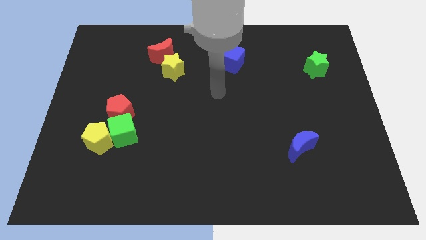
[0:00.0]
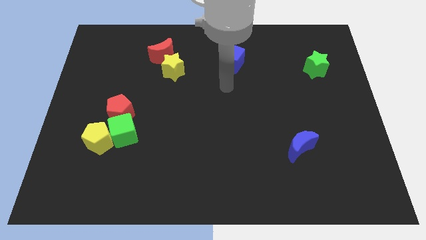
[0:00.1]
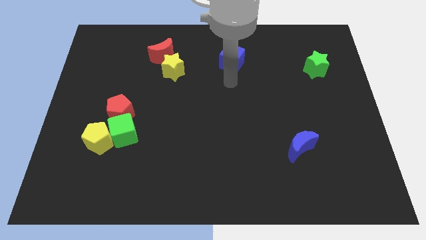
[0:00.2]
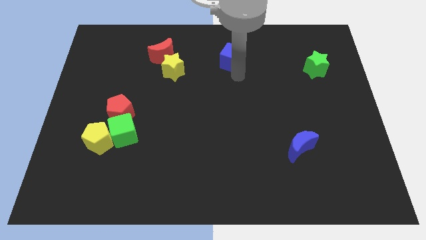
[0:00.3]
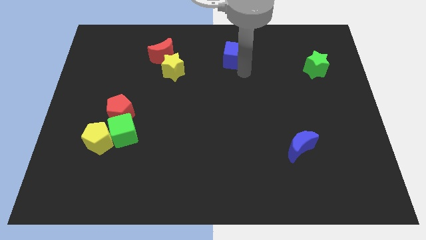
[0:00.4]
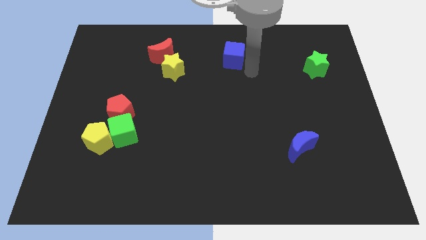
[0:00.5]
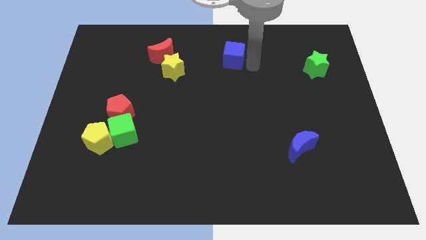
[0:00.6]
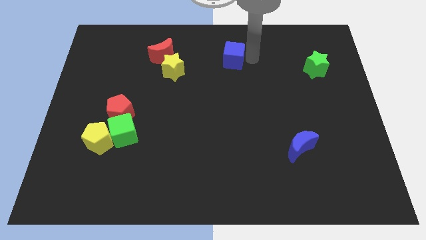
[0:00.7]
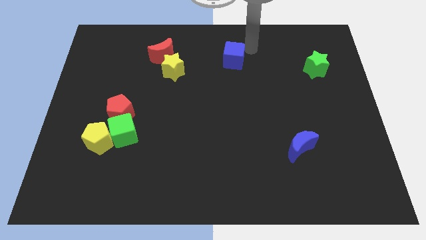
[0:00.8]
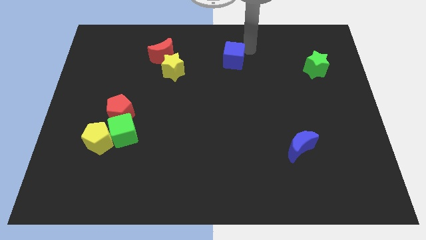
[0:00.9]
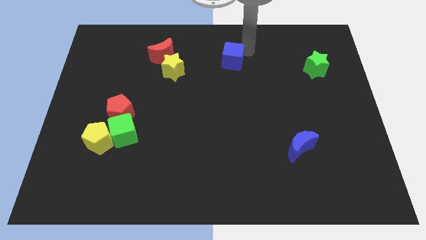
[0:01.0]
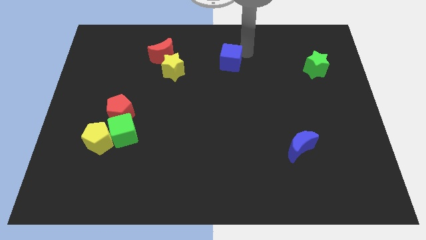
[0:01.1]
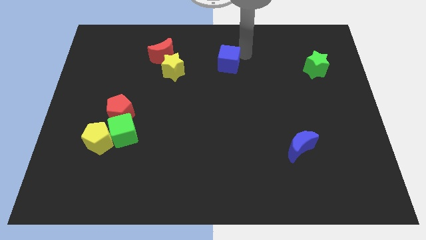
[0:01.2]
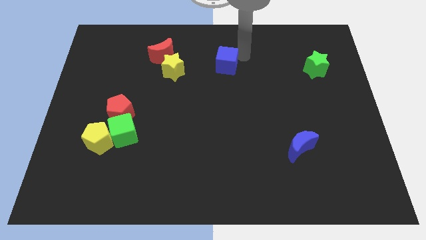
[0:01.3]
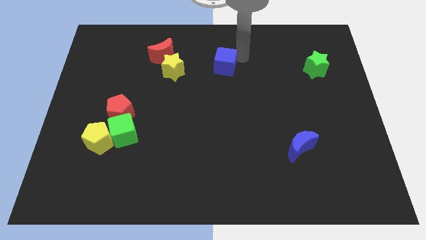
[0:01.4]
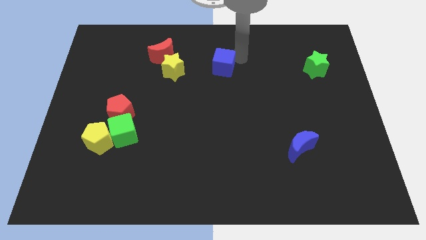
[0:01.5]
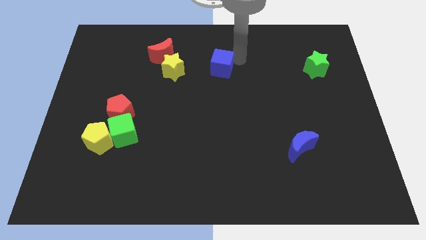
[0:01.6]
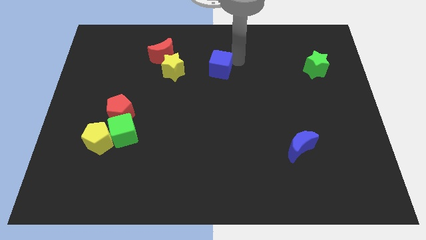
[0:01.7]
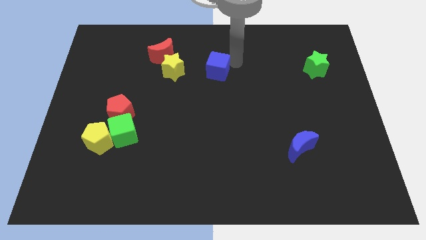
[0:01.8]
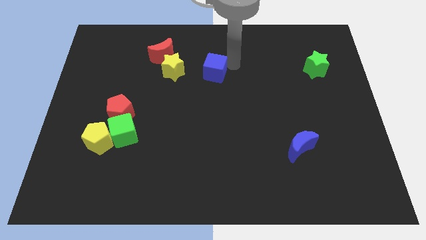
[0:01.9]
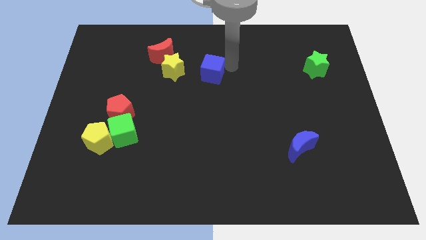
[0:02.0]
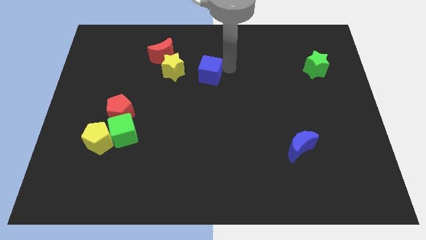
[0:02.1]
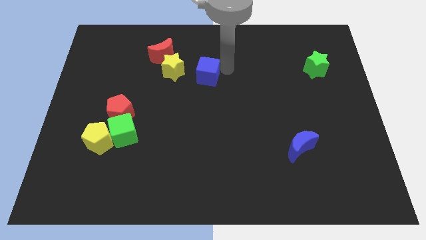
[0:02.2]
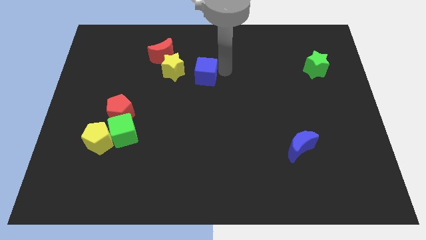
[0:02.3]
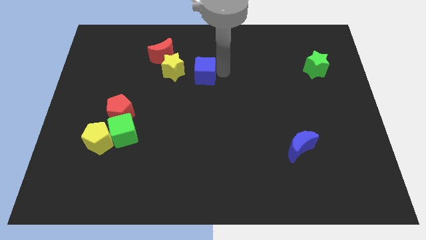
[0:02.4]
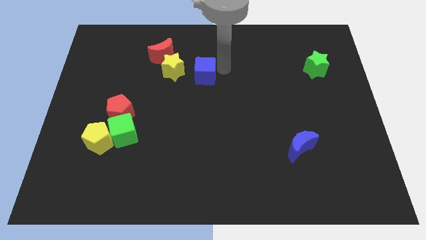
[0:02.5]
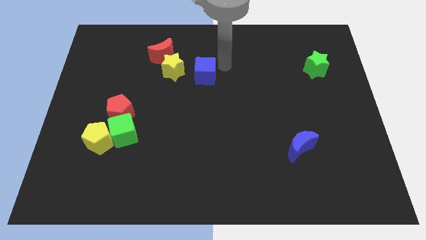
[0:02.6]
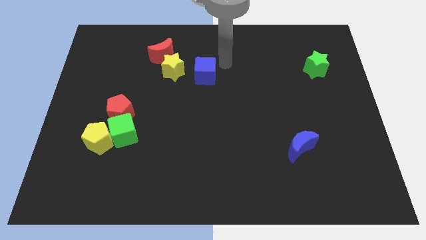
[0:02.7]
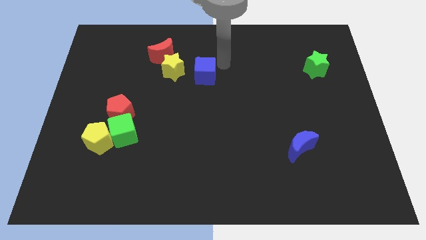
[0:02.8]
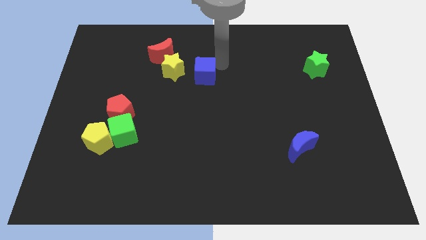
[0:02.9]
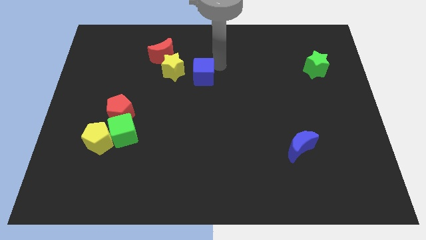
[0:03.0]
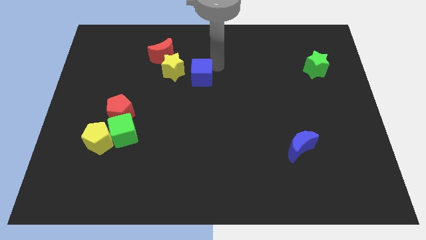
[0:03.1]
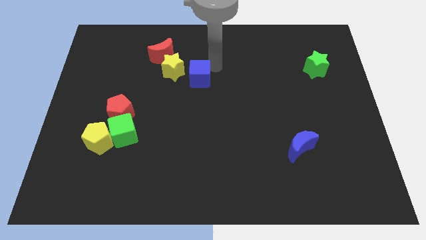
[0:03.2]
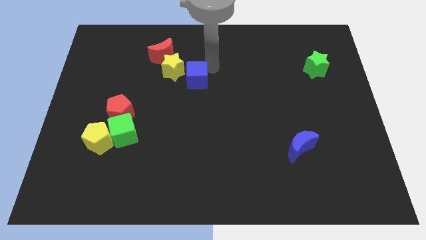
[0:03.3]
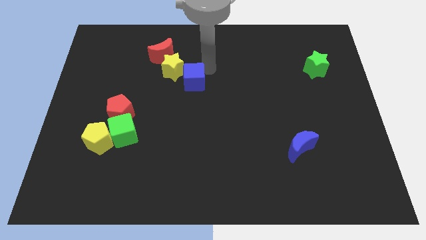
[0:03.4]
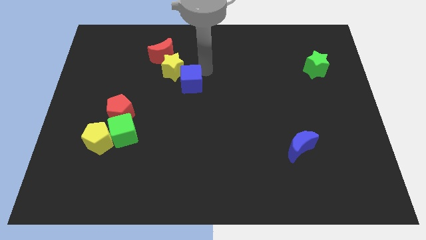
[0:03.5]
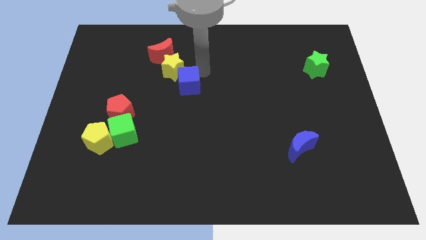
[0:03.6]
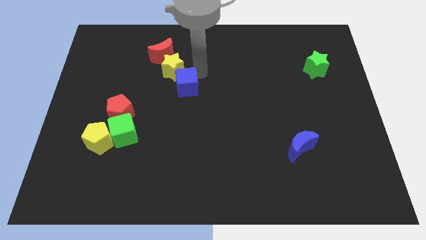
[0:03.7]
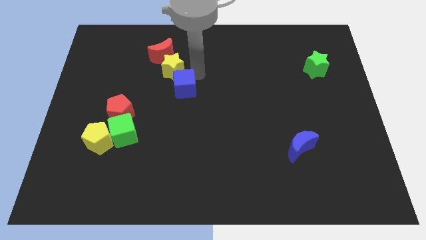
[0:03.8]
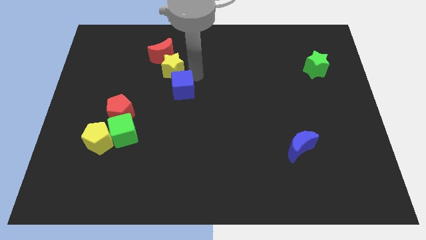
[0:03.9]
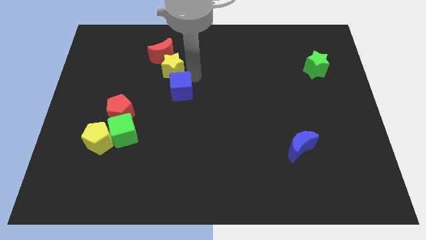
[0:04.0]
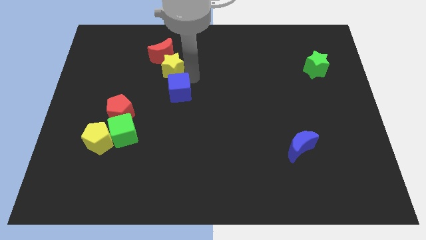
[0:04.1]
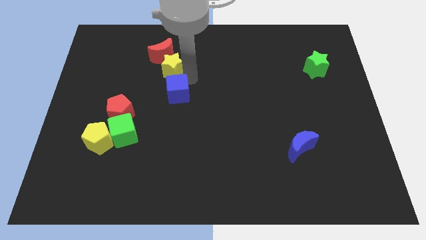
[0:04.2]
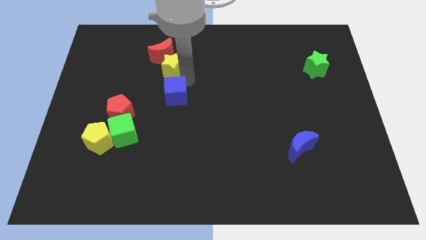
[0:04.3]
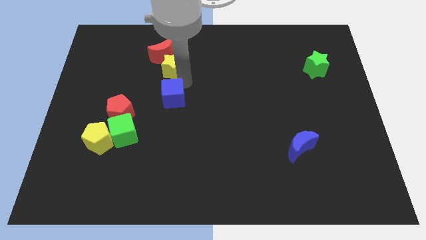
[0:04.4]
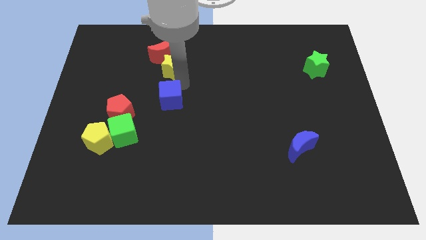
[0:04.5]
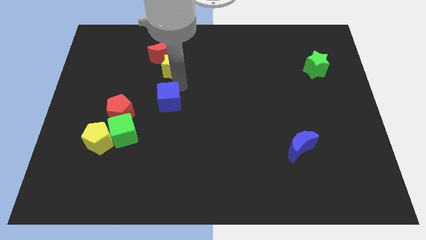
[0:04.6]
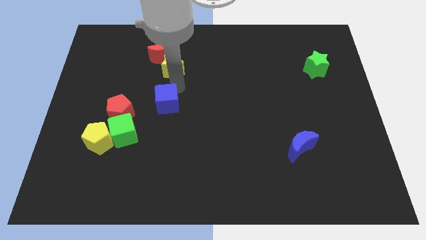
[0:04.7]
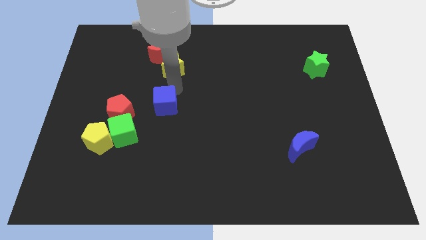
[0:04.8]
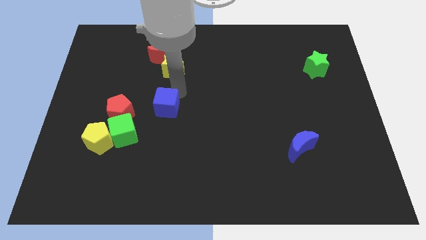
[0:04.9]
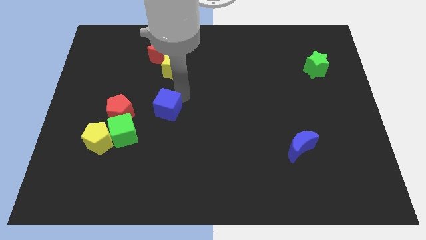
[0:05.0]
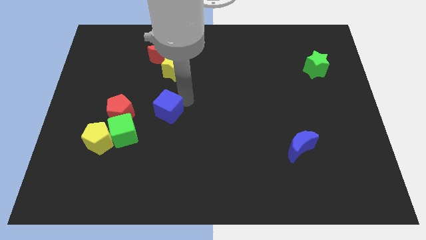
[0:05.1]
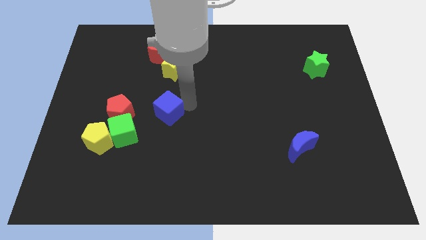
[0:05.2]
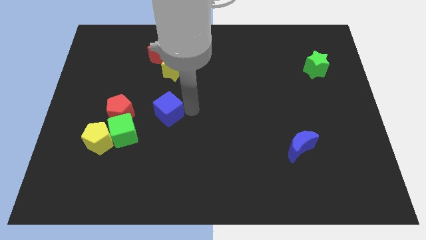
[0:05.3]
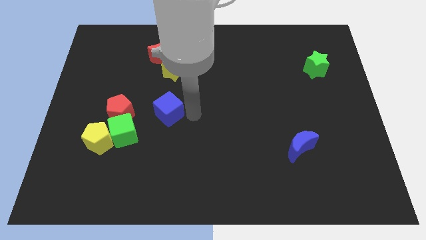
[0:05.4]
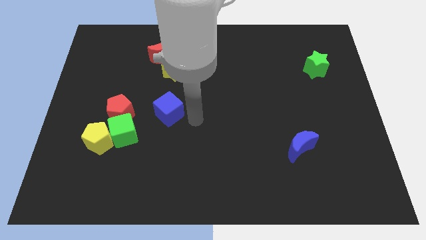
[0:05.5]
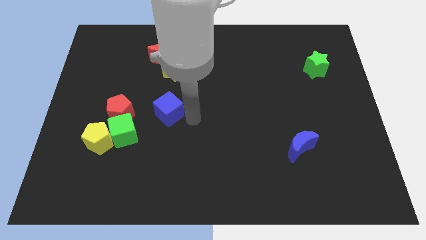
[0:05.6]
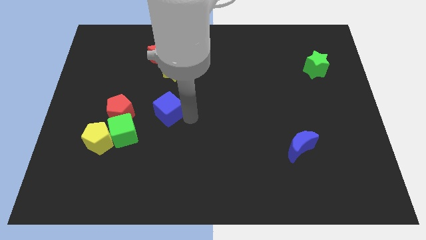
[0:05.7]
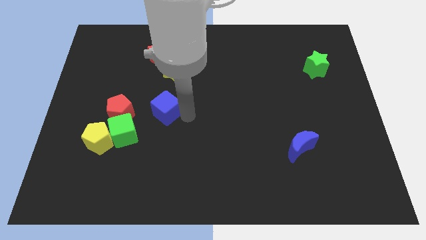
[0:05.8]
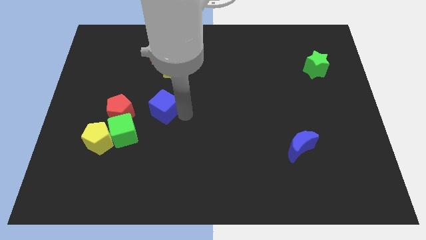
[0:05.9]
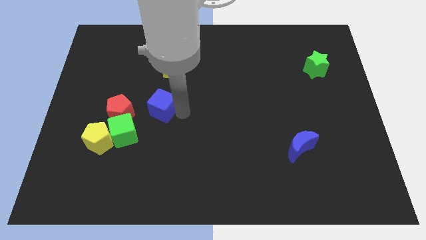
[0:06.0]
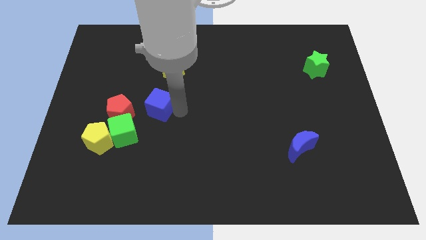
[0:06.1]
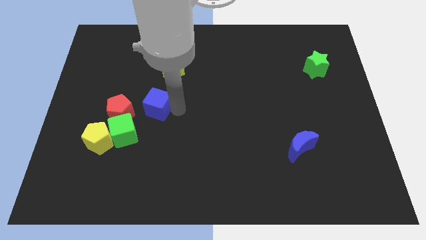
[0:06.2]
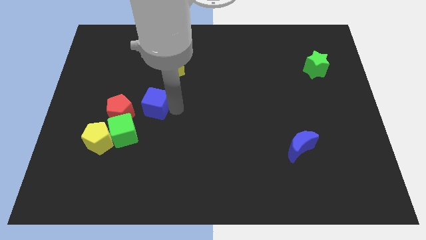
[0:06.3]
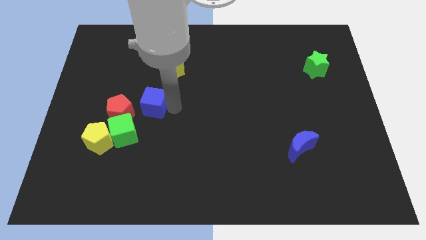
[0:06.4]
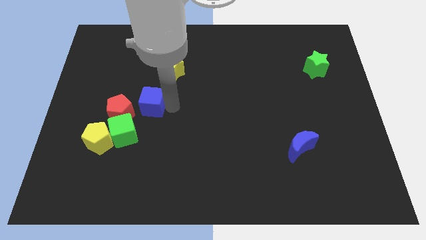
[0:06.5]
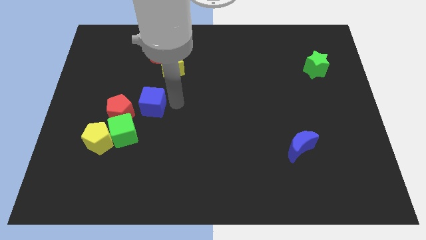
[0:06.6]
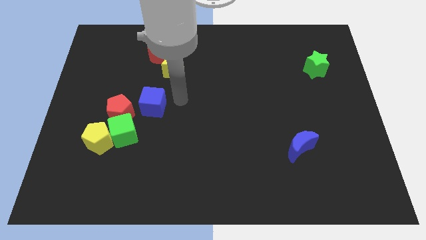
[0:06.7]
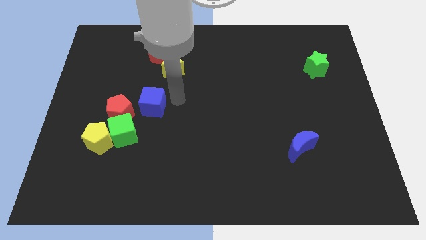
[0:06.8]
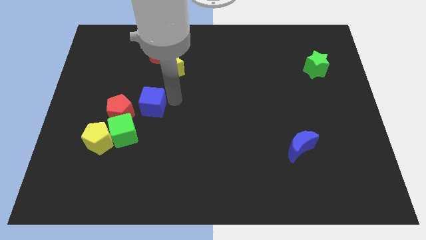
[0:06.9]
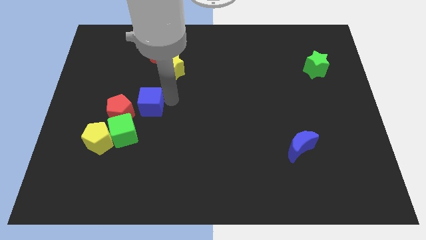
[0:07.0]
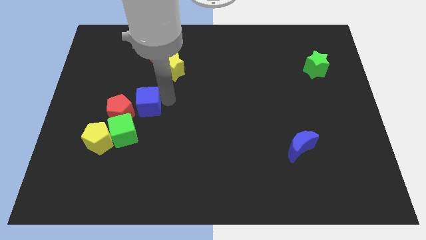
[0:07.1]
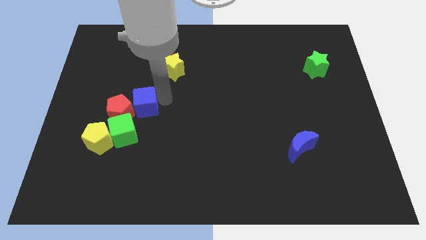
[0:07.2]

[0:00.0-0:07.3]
move the blue cube close to the red pentagon

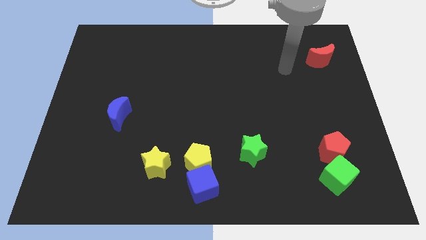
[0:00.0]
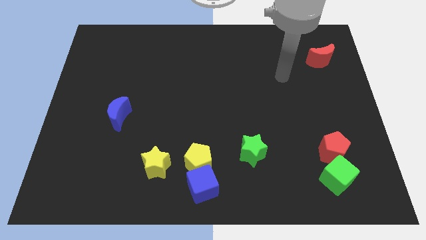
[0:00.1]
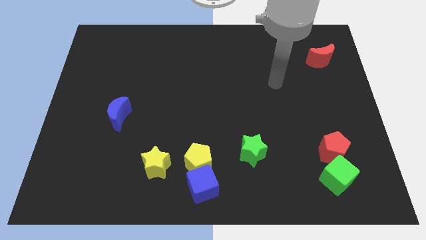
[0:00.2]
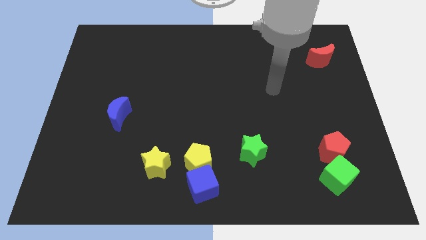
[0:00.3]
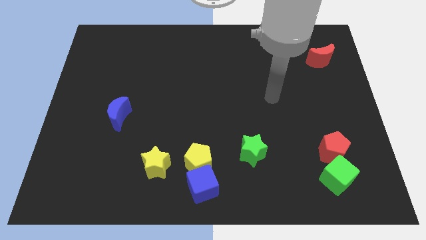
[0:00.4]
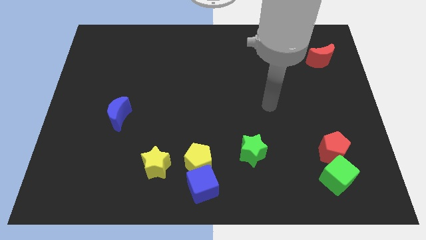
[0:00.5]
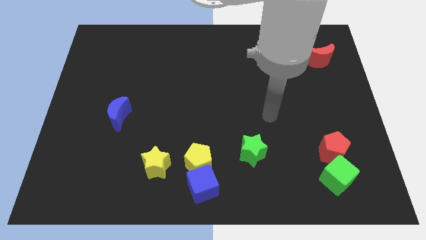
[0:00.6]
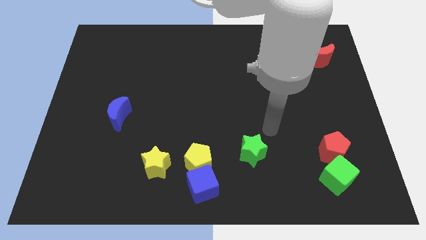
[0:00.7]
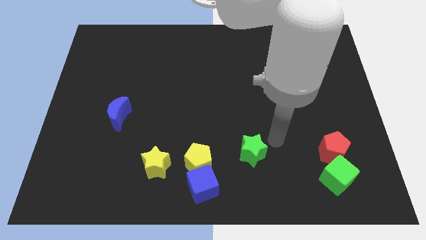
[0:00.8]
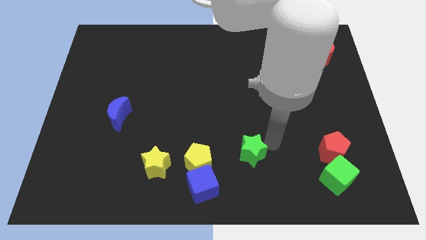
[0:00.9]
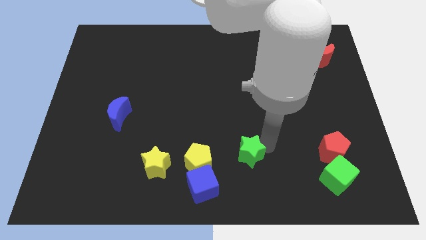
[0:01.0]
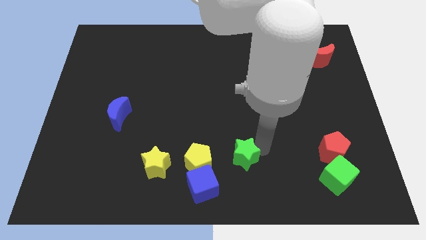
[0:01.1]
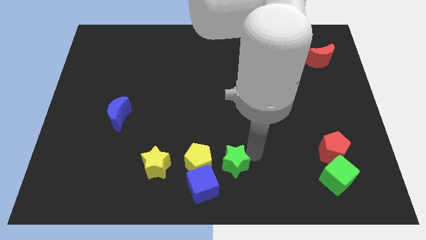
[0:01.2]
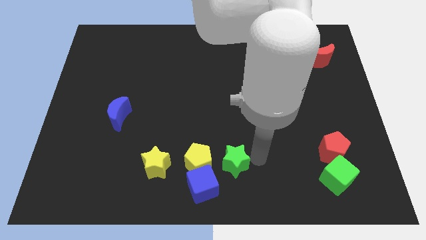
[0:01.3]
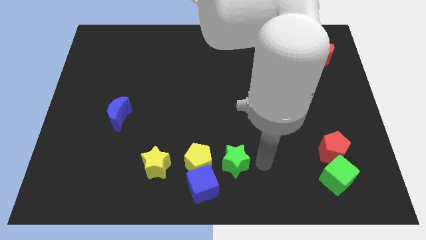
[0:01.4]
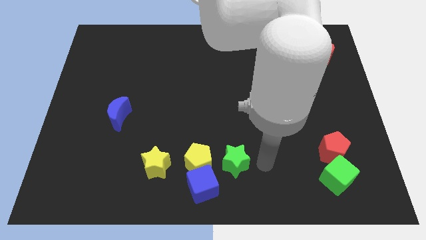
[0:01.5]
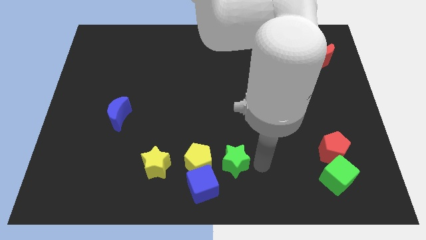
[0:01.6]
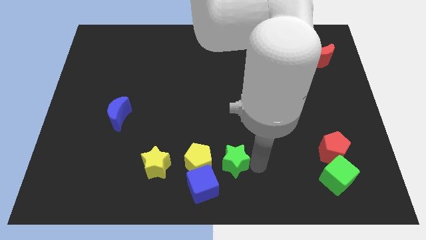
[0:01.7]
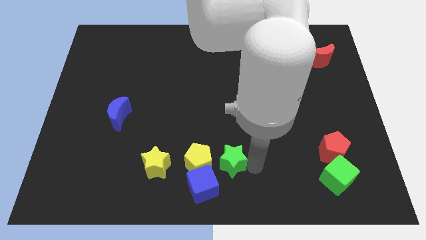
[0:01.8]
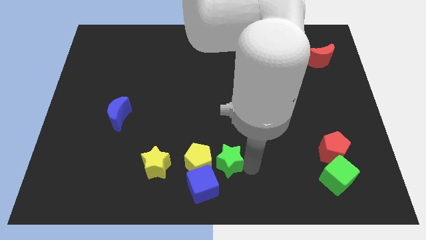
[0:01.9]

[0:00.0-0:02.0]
push the green star to the yellow pentagon
